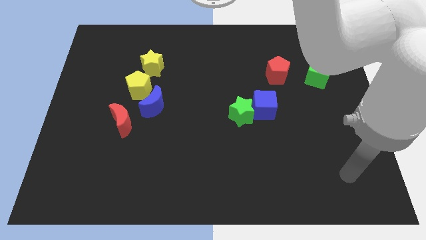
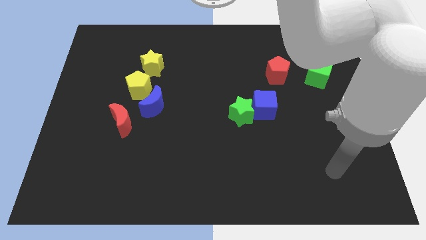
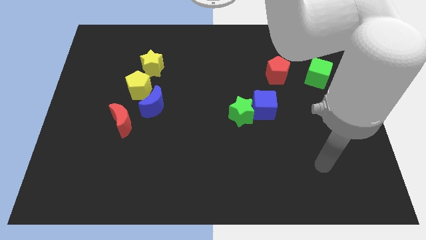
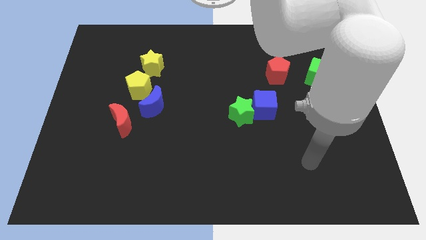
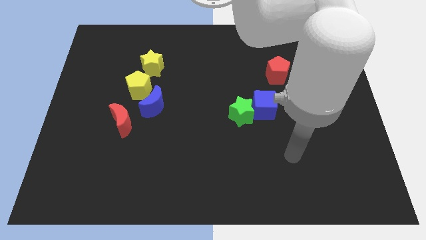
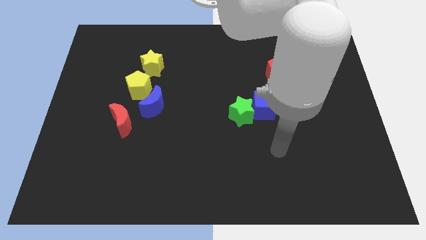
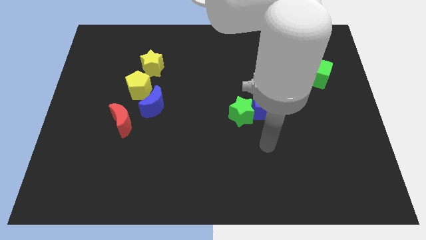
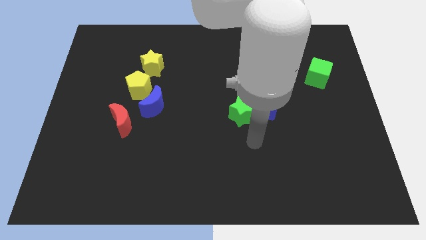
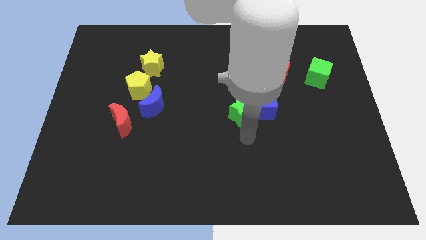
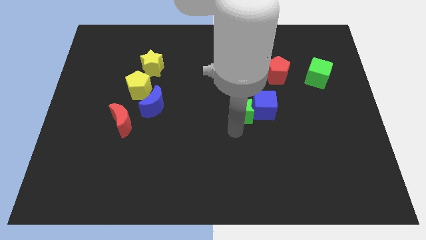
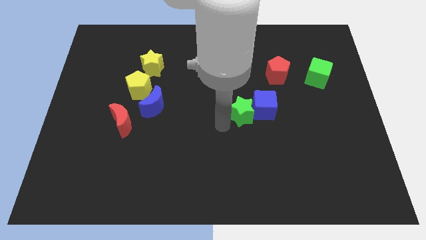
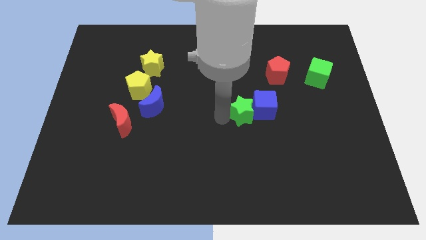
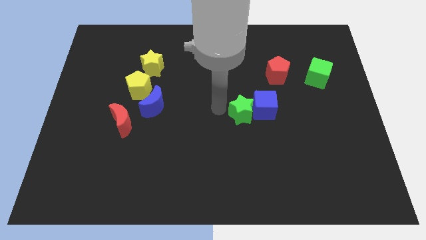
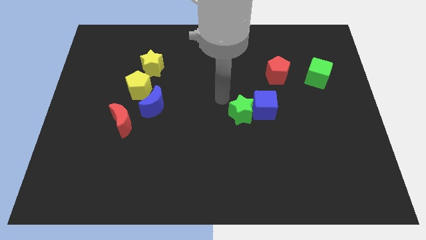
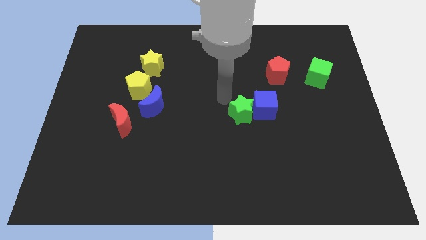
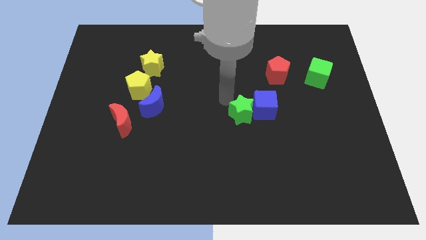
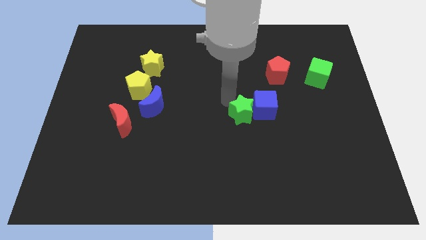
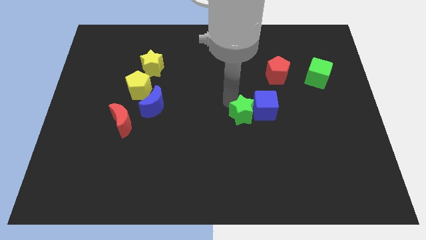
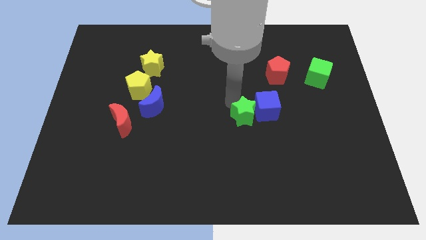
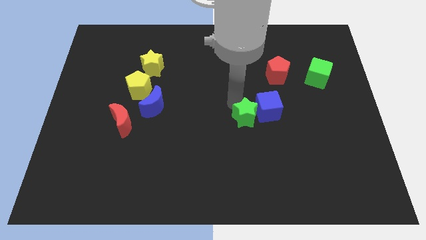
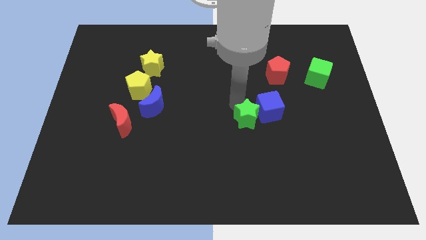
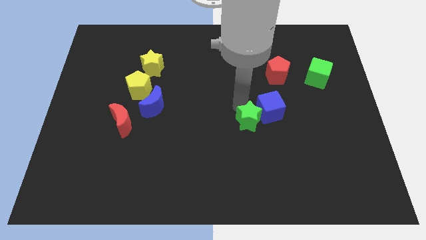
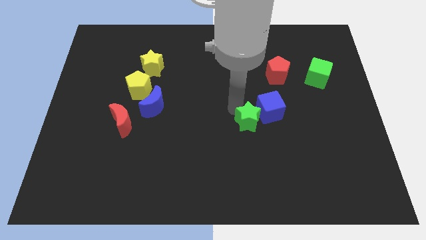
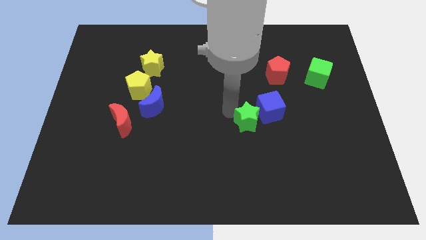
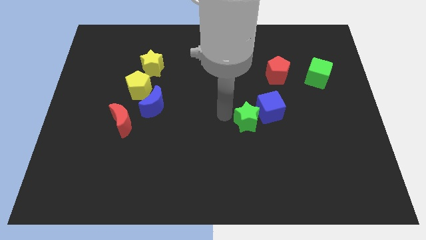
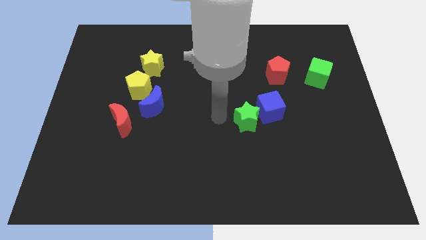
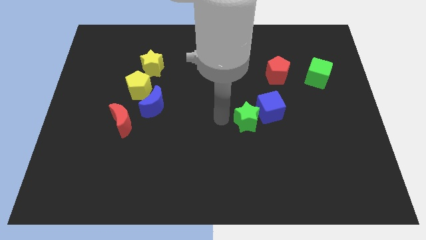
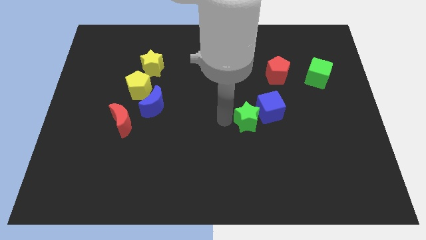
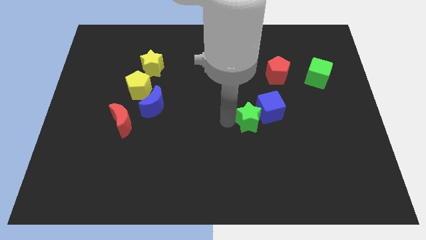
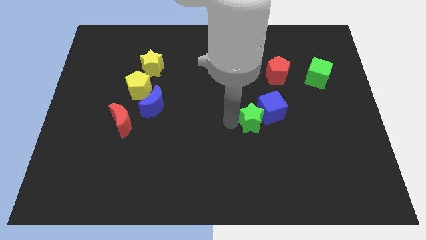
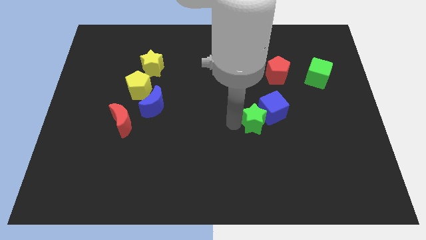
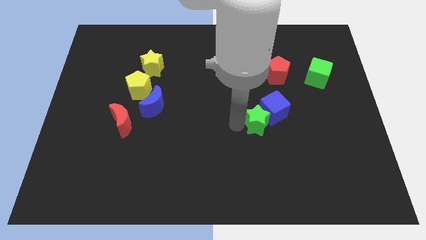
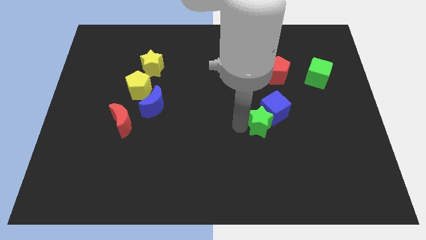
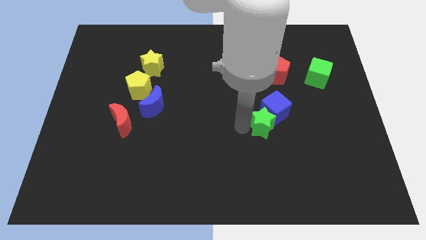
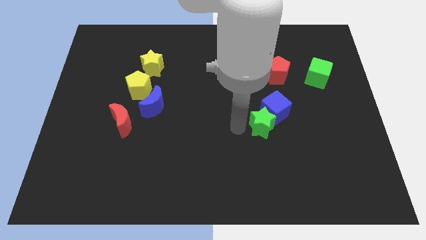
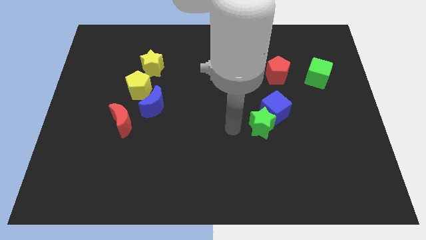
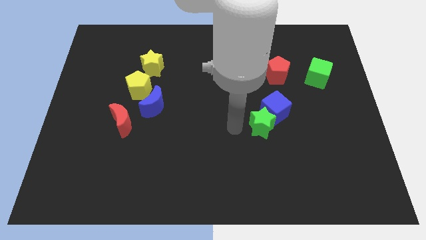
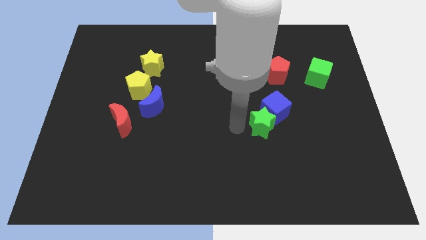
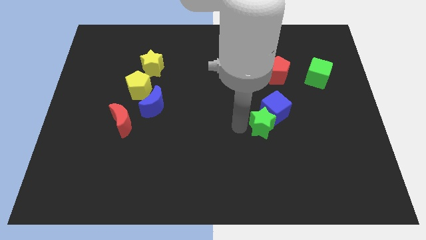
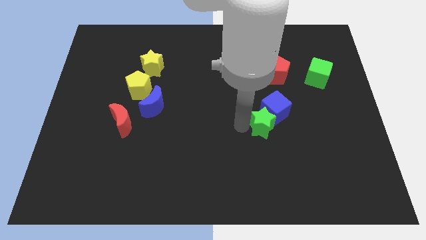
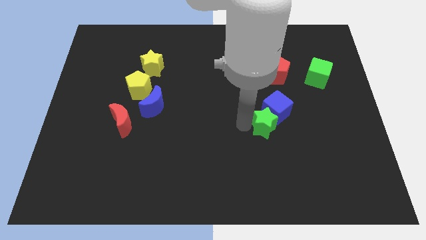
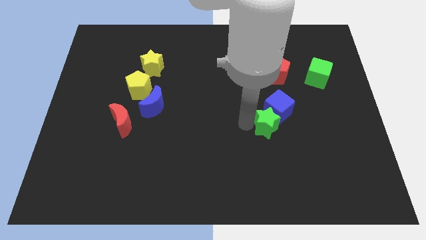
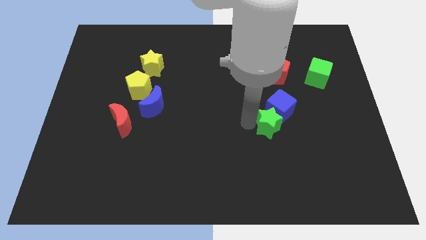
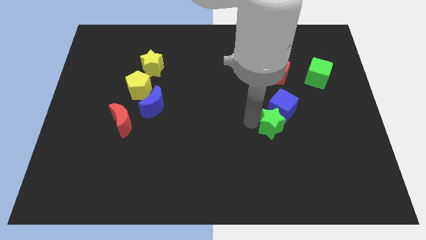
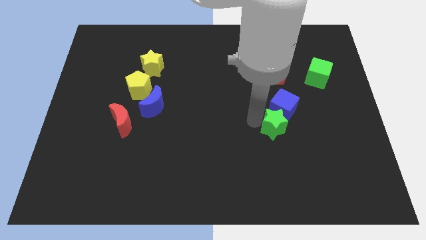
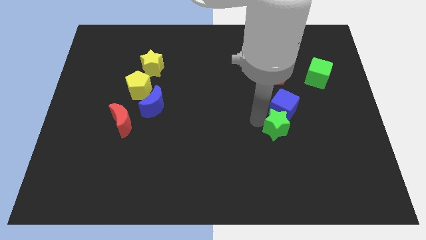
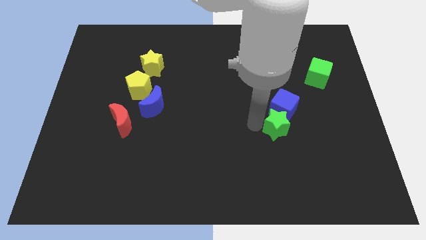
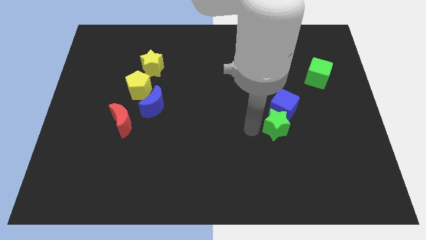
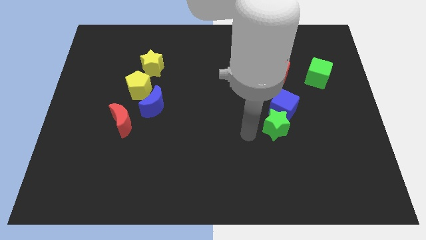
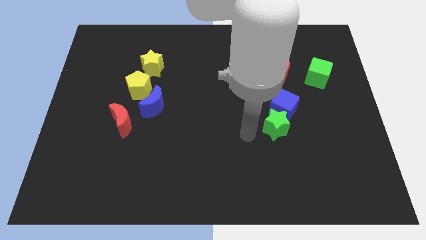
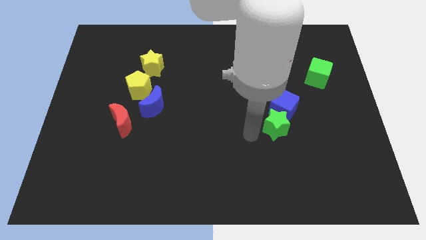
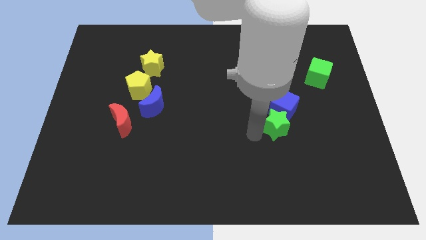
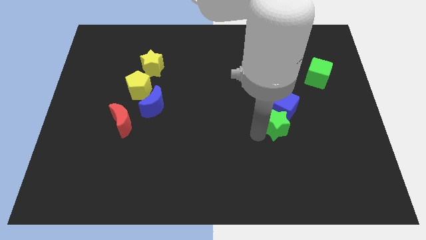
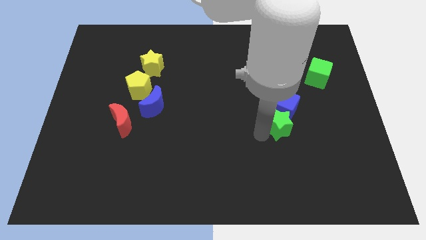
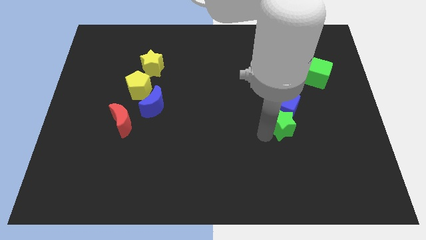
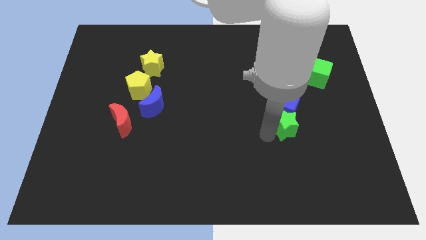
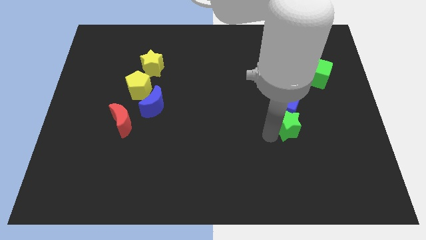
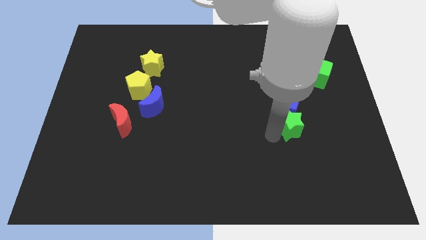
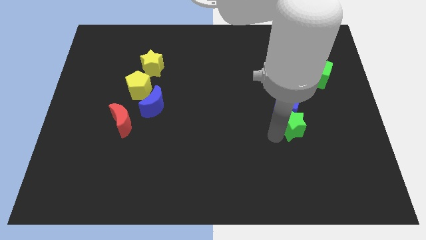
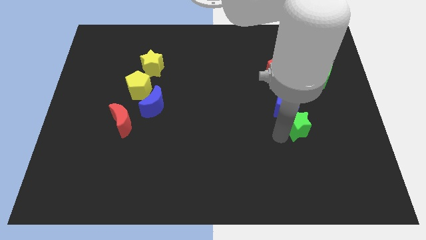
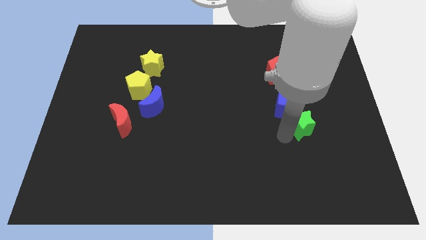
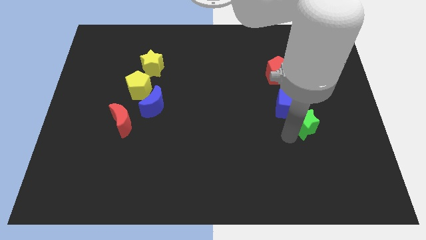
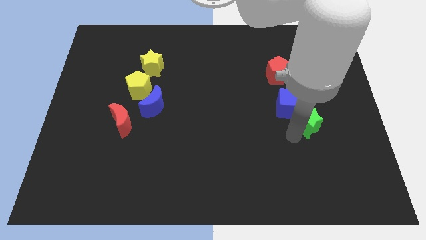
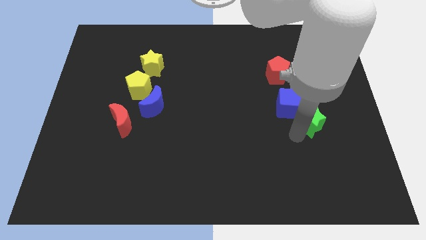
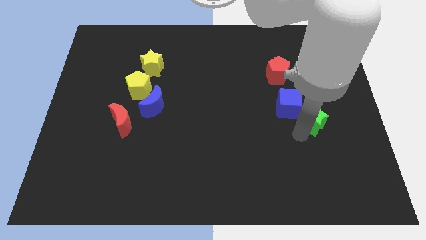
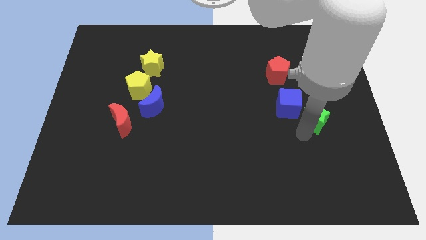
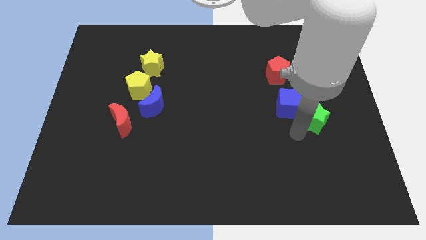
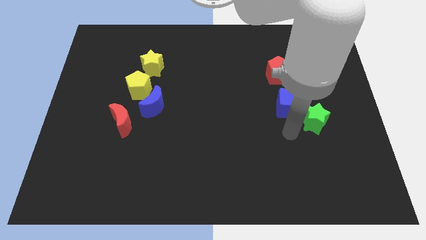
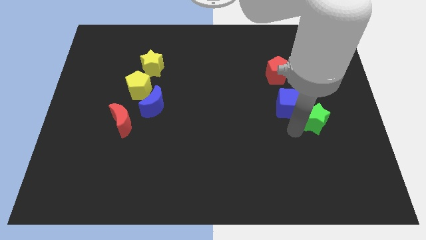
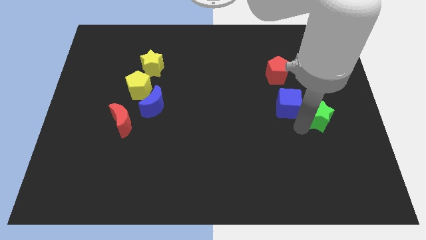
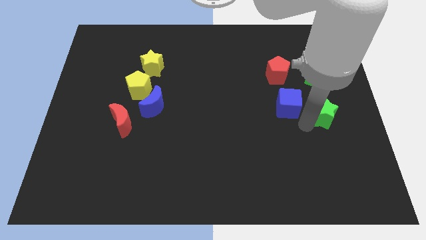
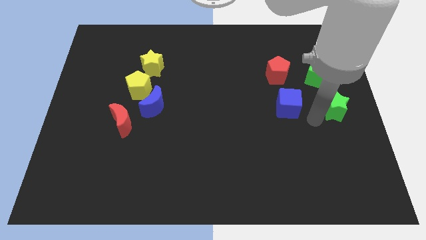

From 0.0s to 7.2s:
slide the green star to the right side of the board
